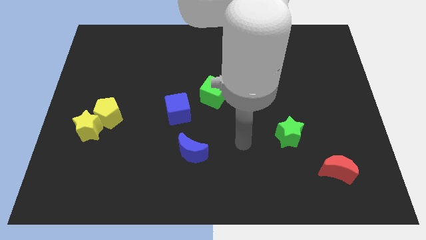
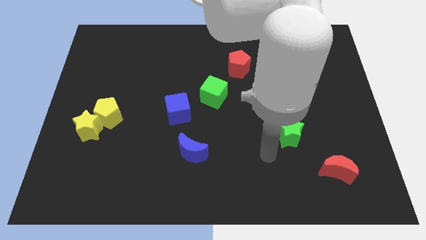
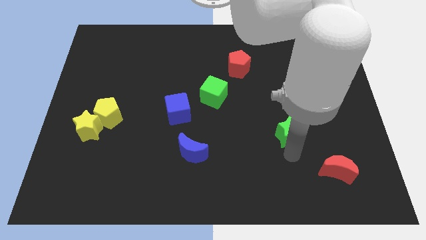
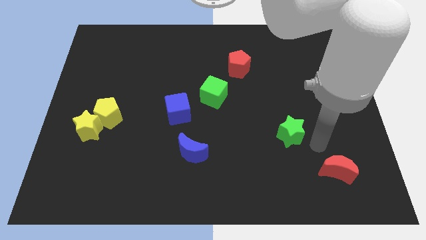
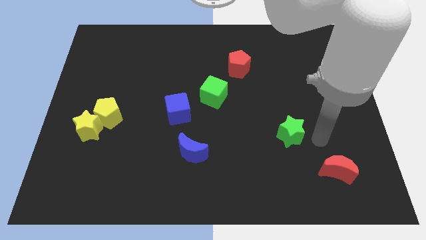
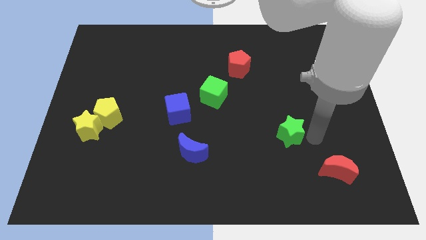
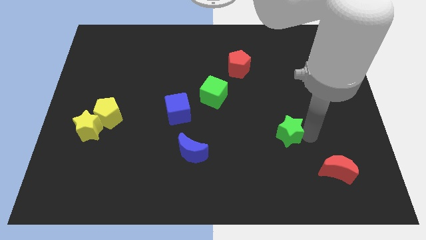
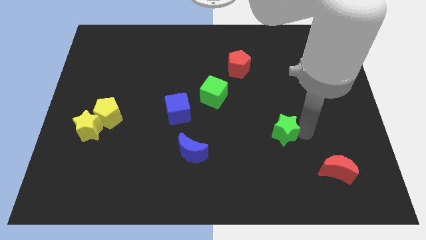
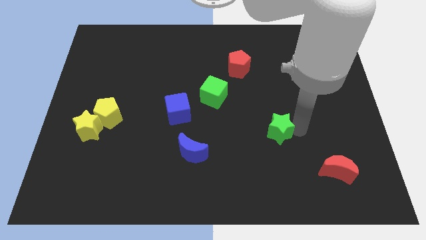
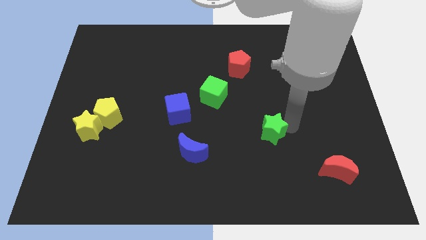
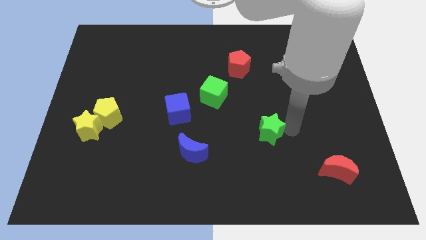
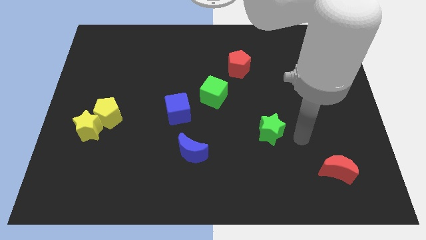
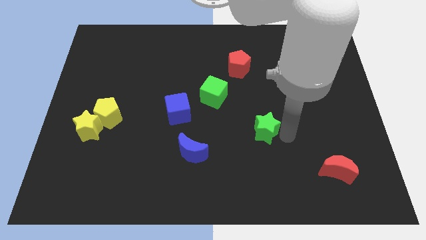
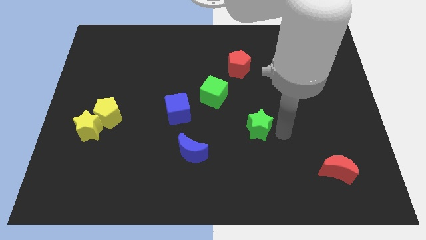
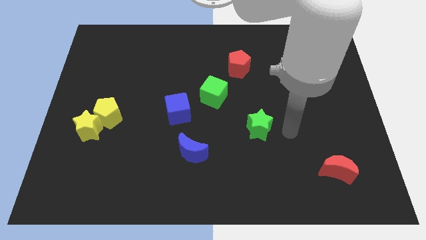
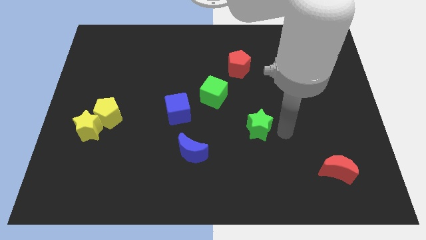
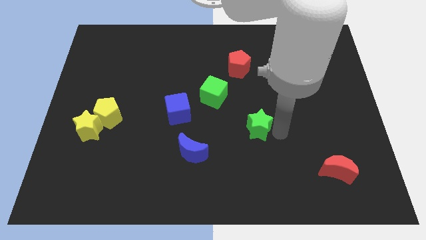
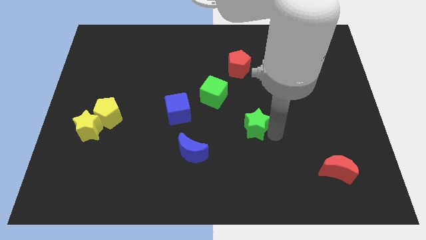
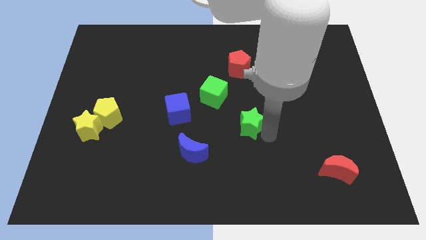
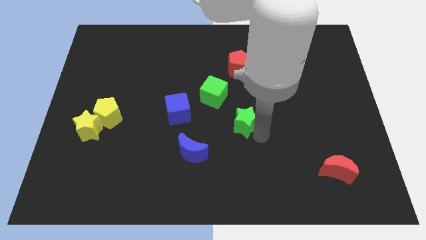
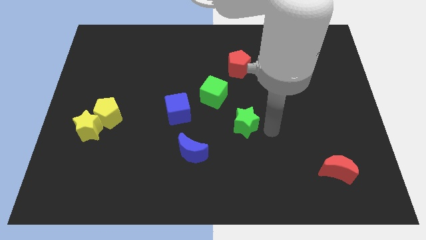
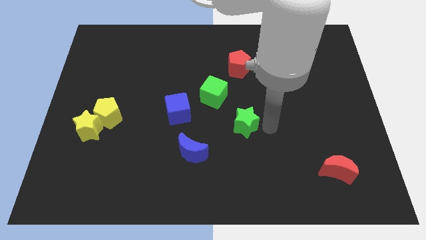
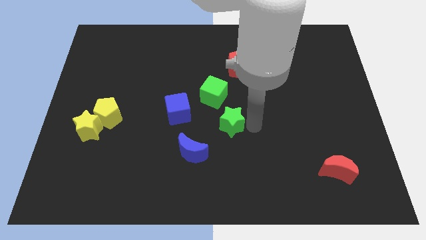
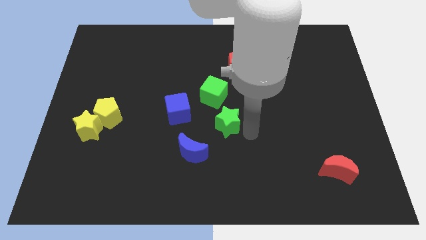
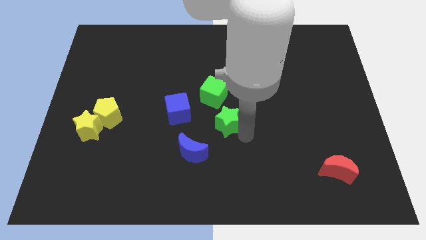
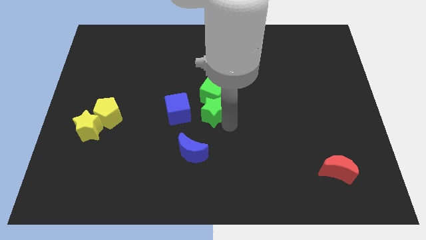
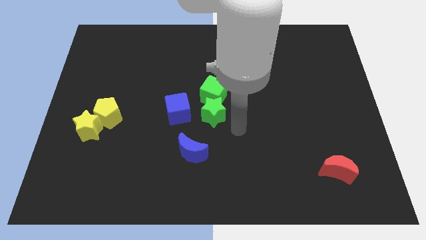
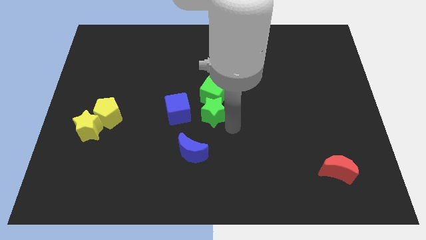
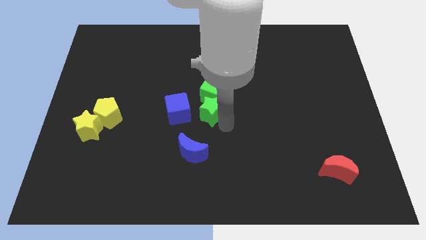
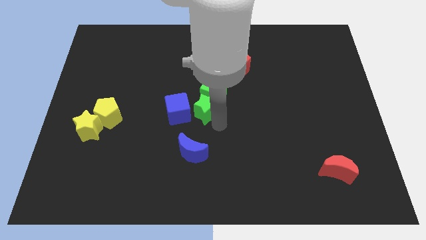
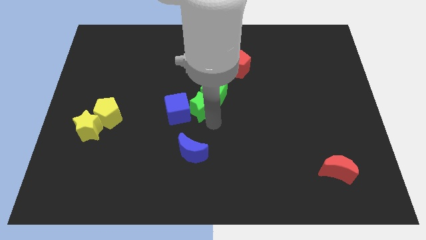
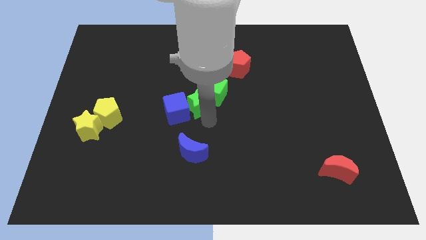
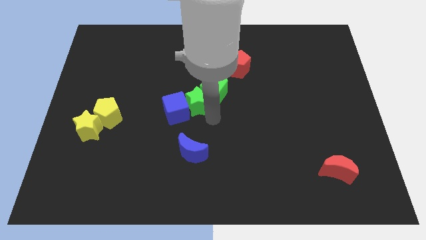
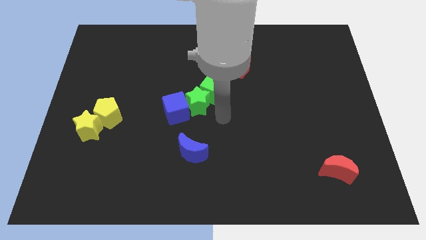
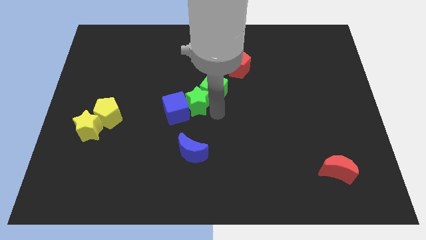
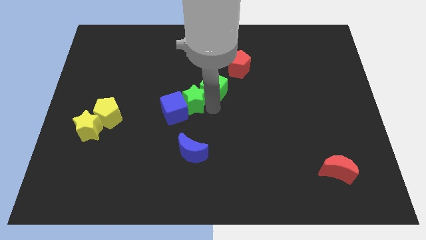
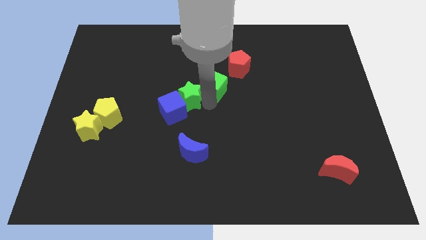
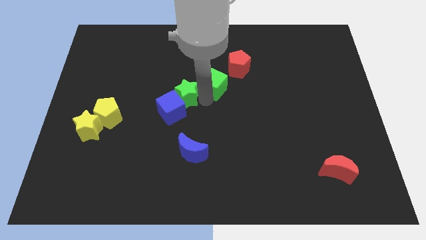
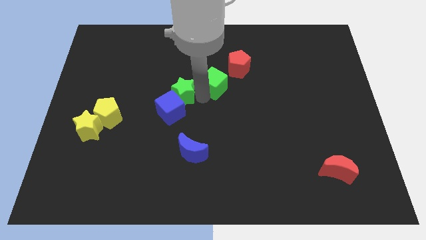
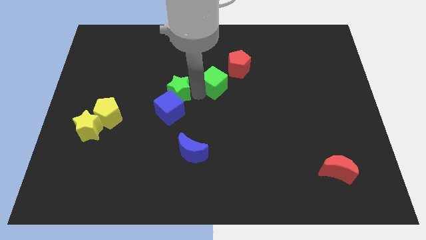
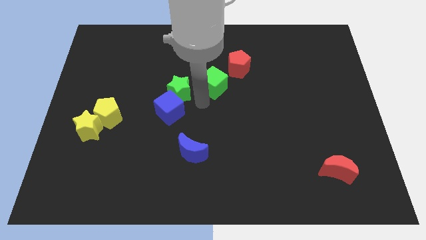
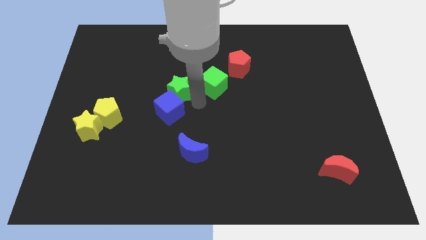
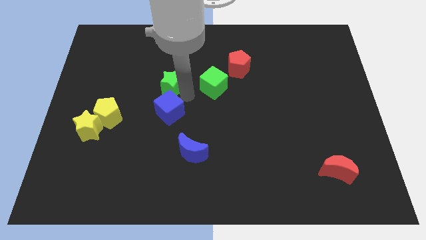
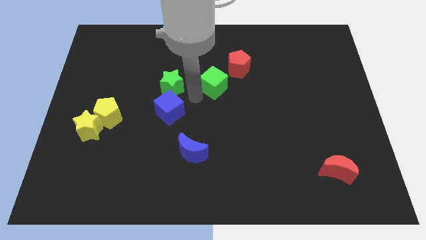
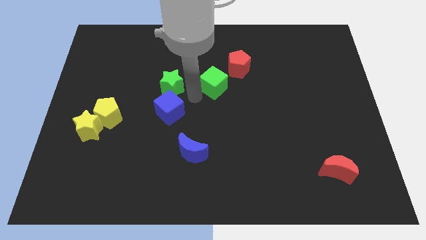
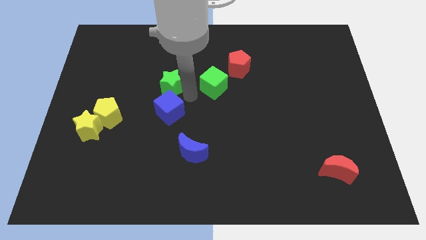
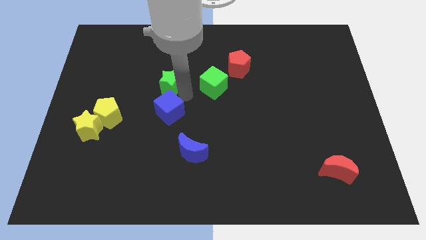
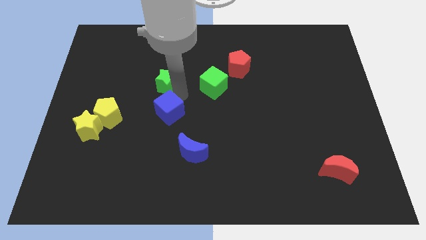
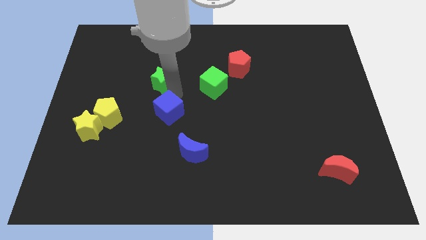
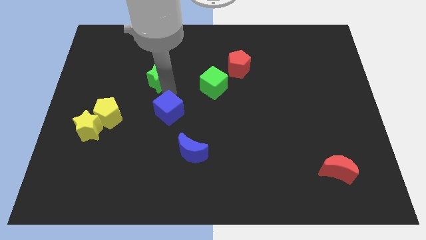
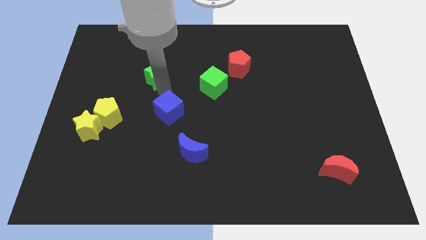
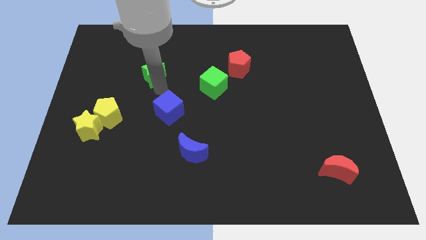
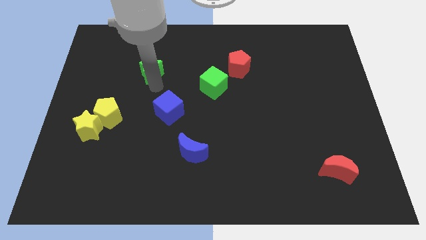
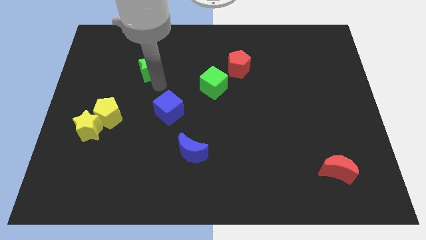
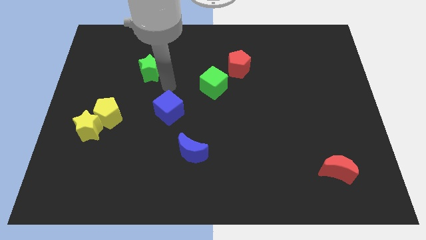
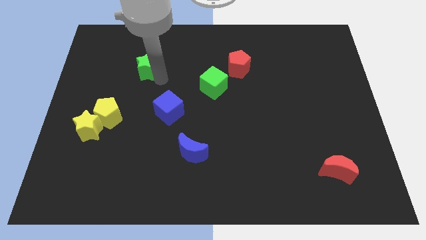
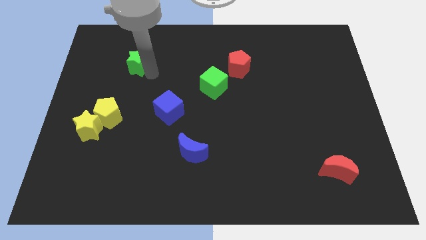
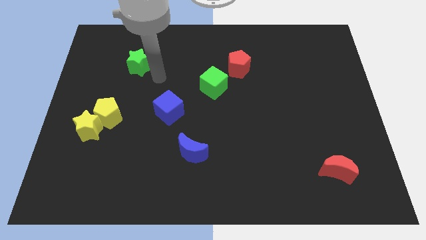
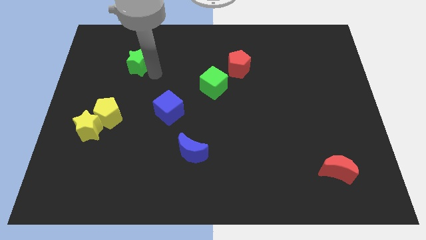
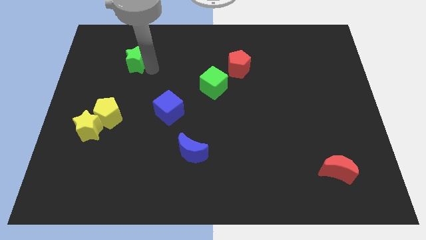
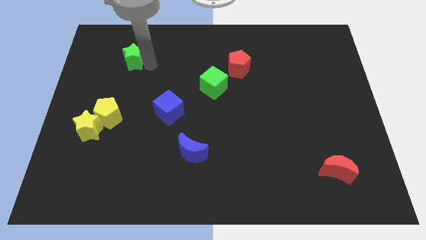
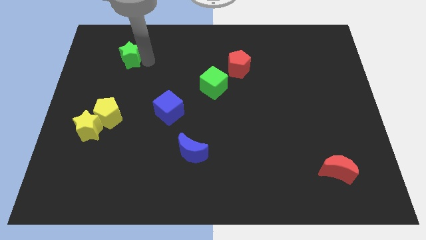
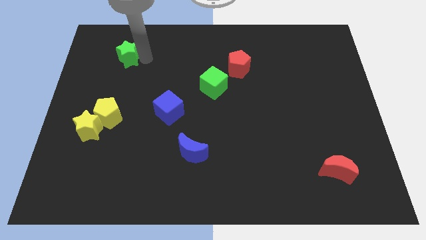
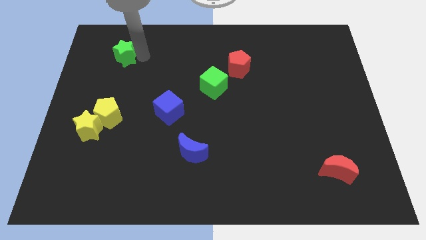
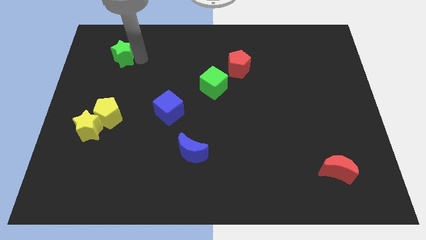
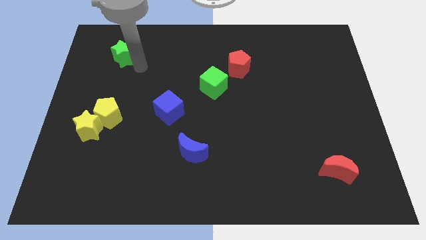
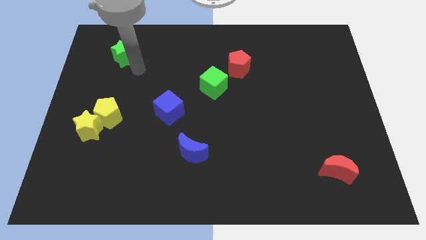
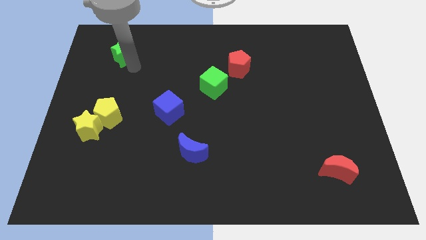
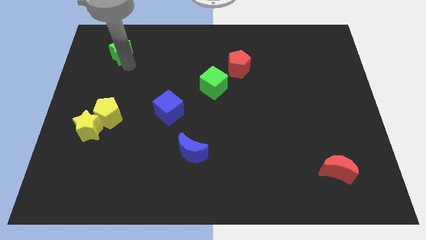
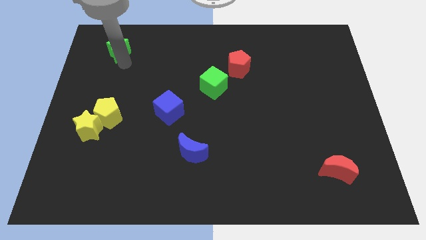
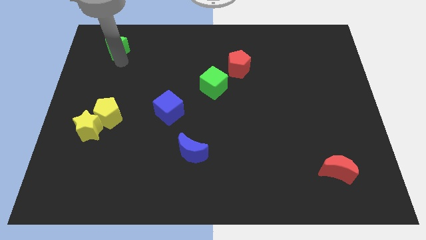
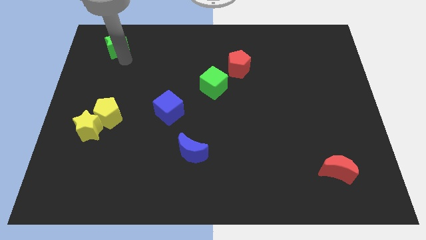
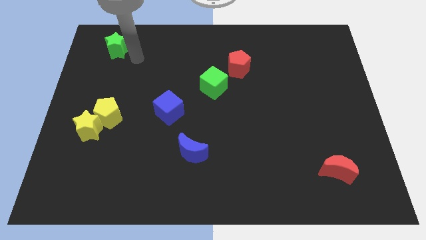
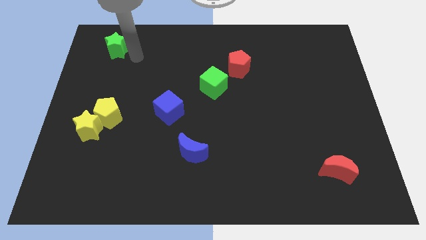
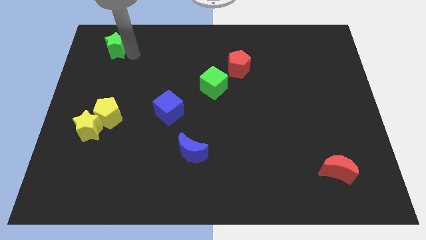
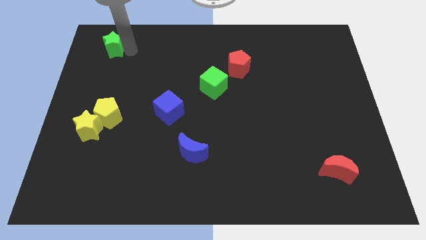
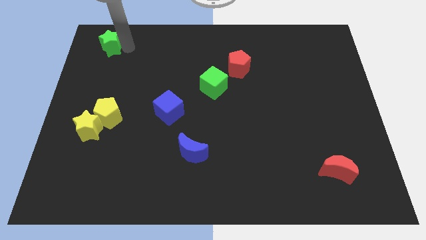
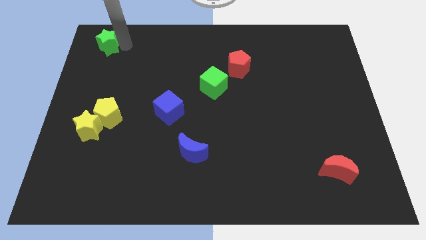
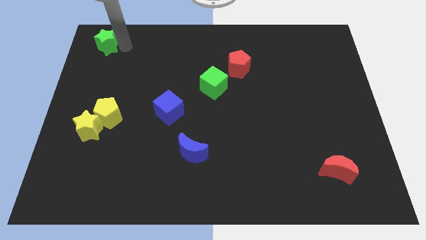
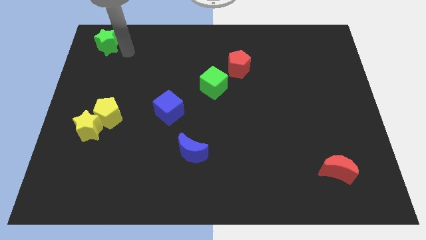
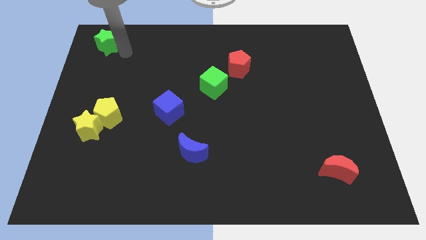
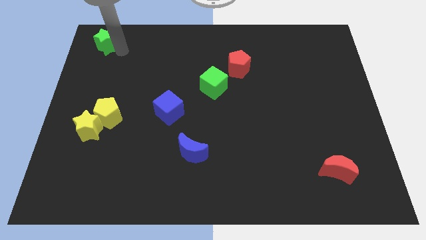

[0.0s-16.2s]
put the green star to the upper left corner
